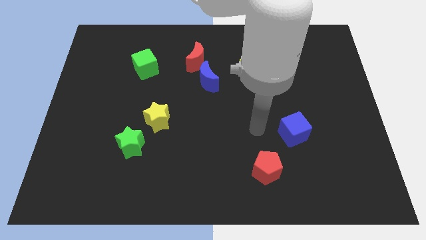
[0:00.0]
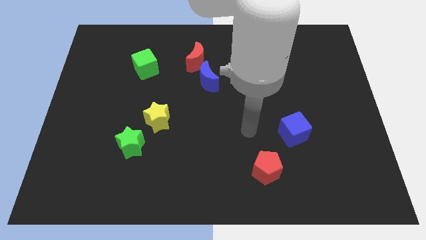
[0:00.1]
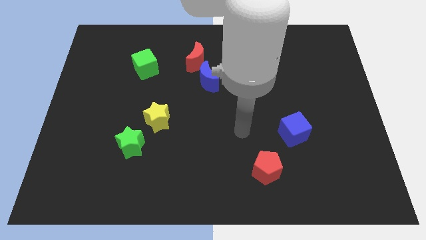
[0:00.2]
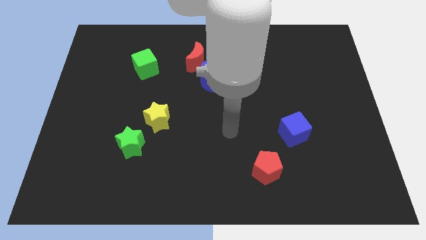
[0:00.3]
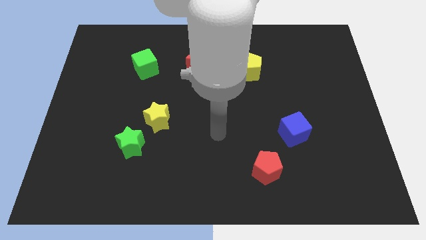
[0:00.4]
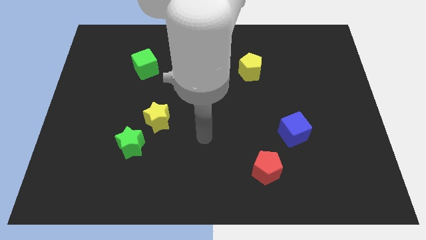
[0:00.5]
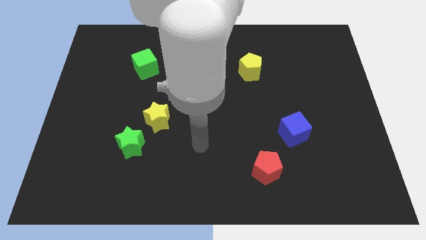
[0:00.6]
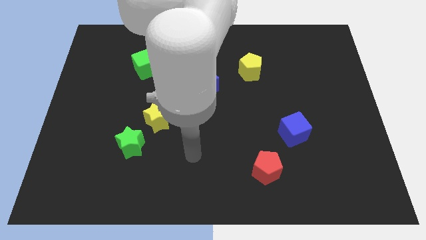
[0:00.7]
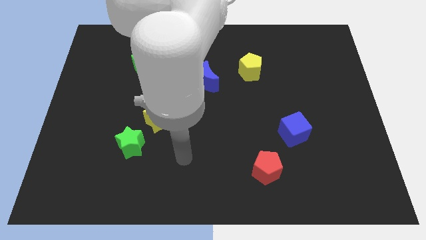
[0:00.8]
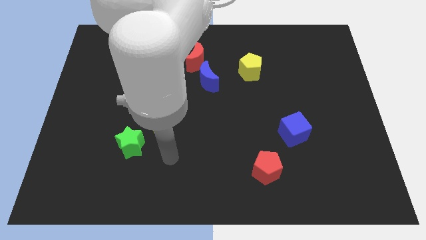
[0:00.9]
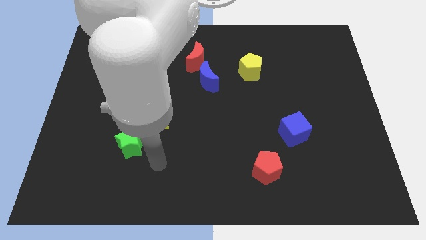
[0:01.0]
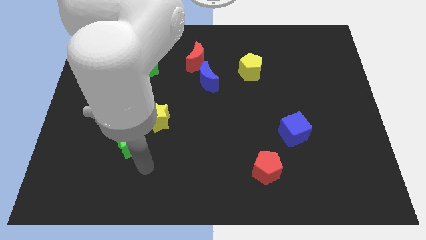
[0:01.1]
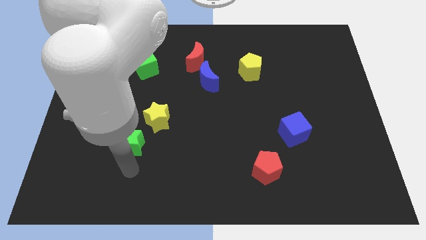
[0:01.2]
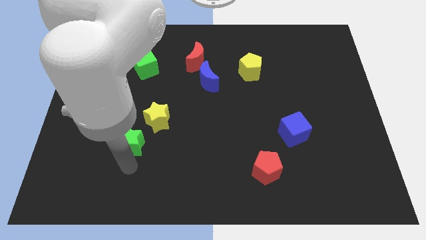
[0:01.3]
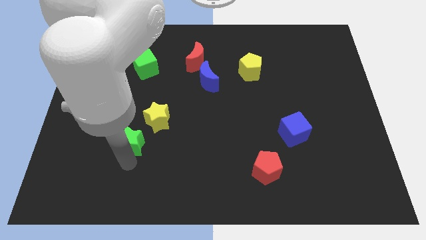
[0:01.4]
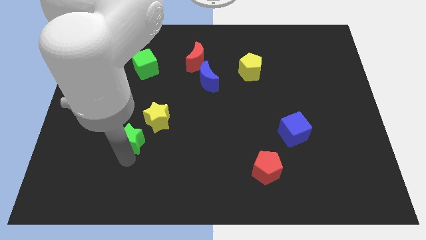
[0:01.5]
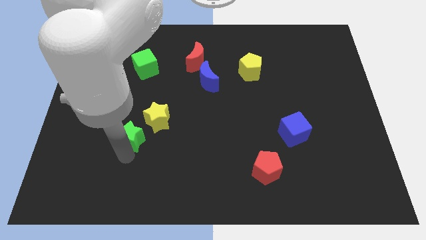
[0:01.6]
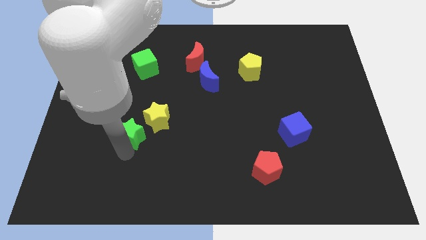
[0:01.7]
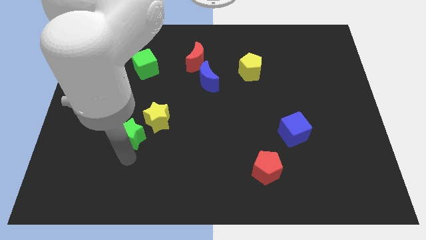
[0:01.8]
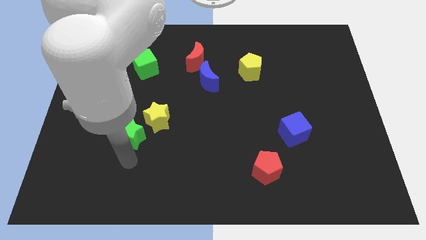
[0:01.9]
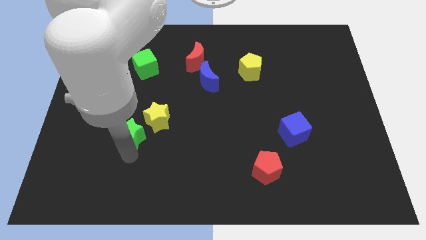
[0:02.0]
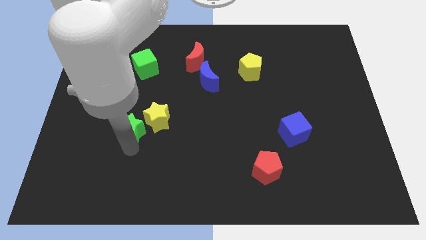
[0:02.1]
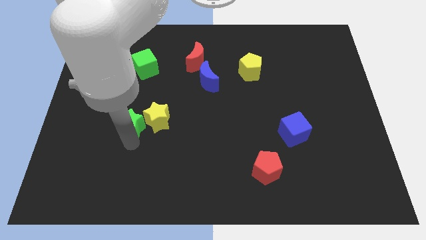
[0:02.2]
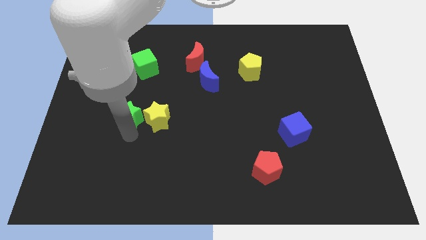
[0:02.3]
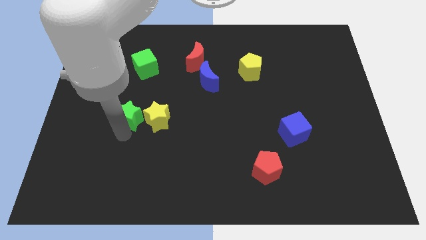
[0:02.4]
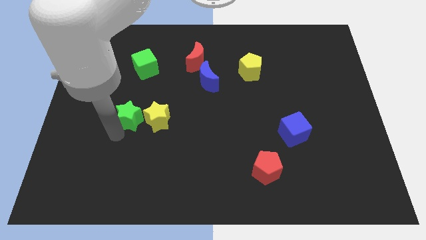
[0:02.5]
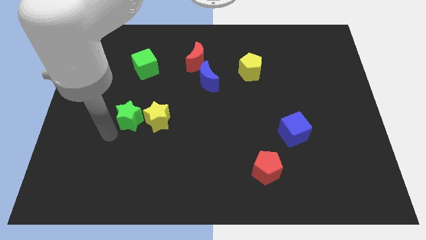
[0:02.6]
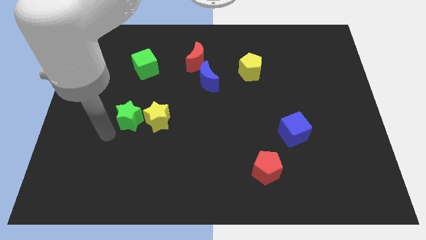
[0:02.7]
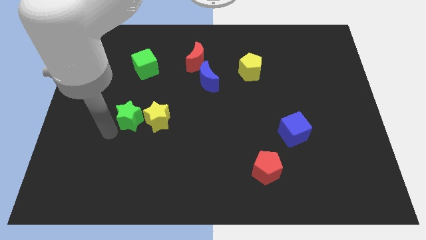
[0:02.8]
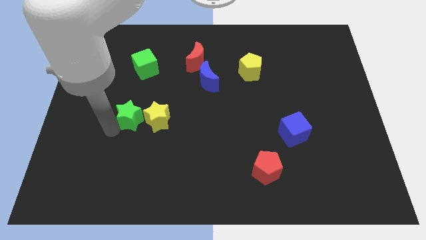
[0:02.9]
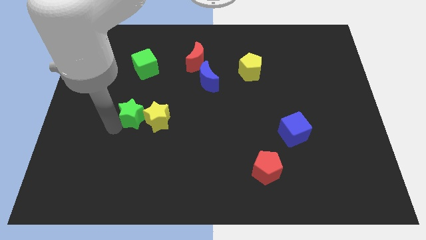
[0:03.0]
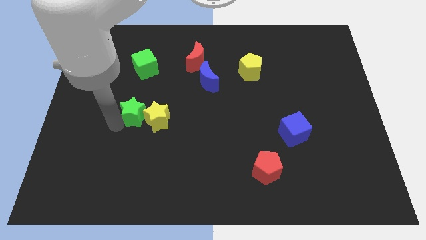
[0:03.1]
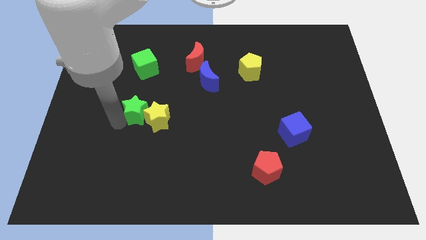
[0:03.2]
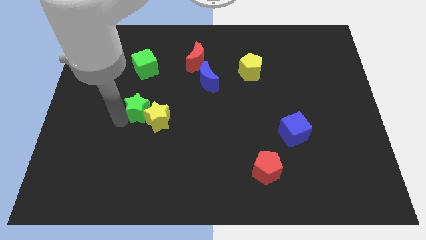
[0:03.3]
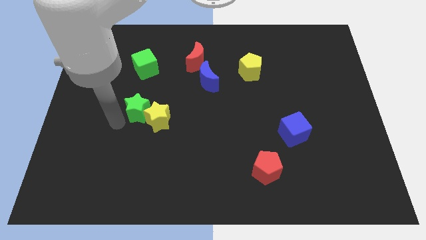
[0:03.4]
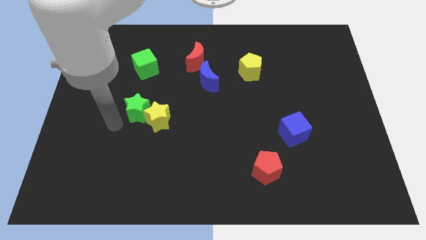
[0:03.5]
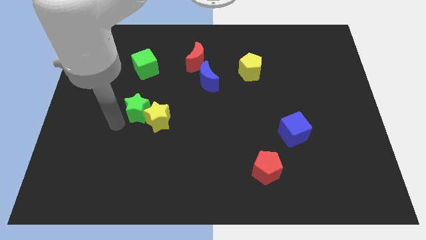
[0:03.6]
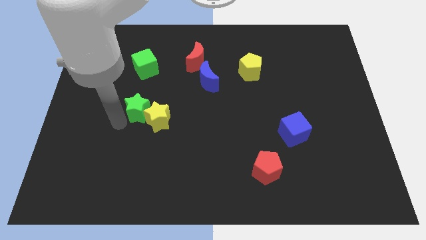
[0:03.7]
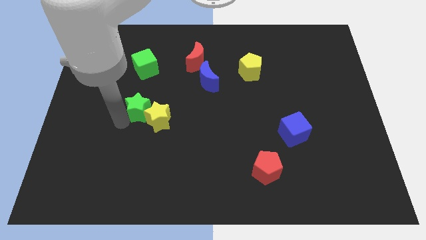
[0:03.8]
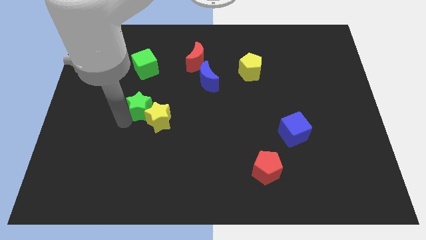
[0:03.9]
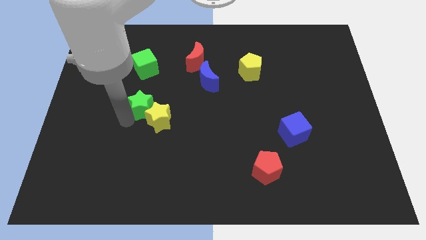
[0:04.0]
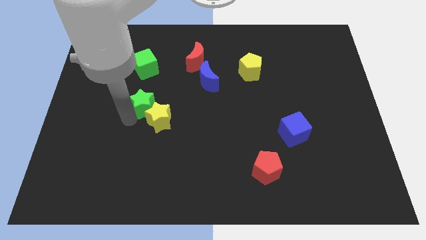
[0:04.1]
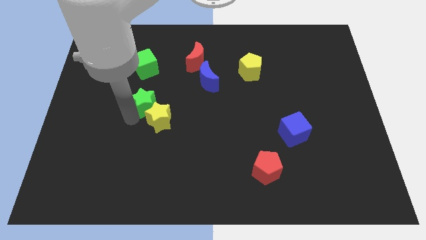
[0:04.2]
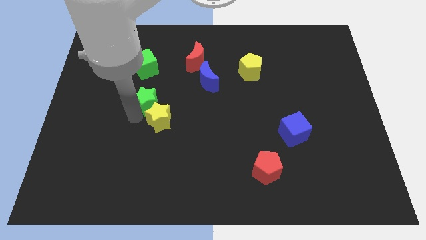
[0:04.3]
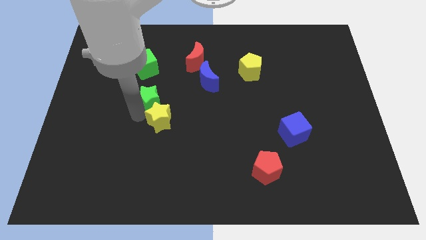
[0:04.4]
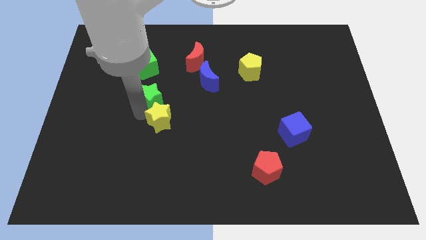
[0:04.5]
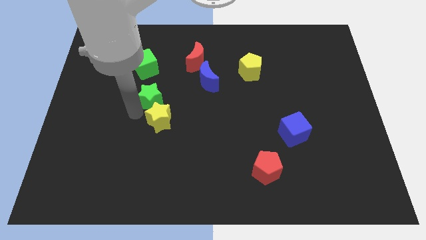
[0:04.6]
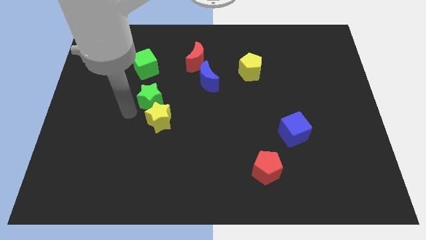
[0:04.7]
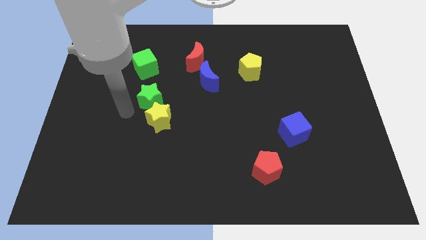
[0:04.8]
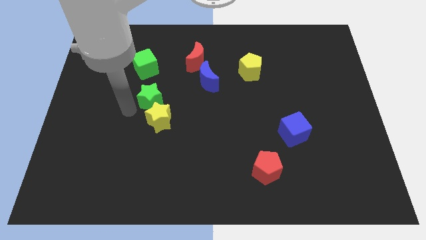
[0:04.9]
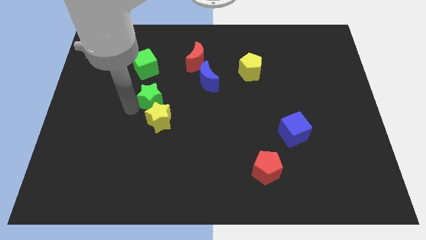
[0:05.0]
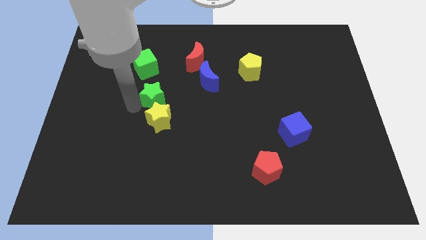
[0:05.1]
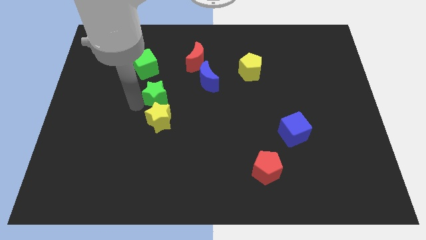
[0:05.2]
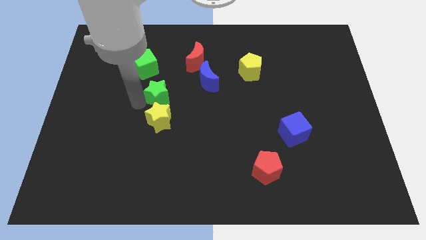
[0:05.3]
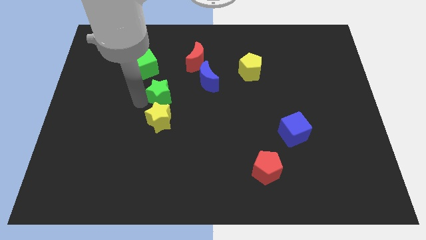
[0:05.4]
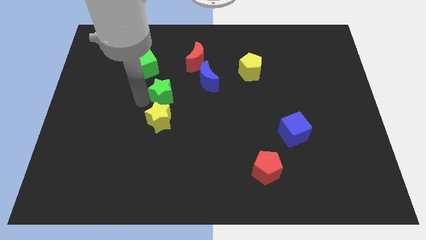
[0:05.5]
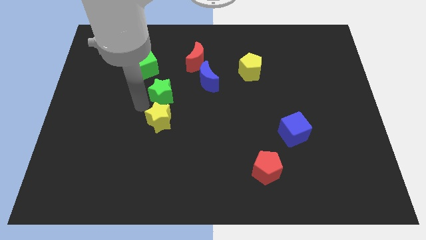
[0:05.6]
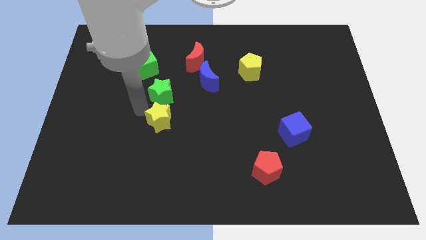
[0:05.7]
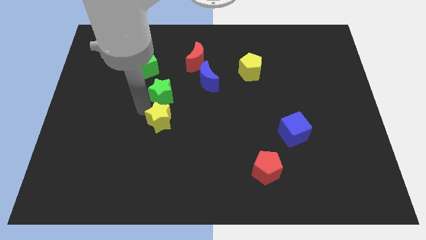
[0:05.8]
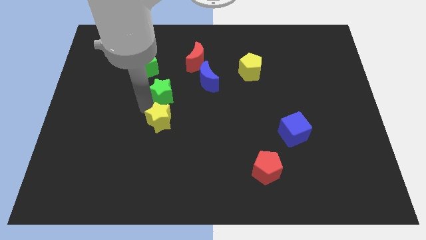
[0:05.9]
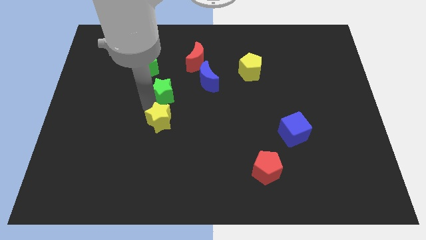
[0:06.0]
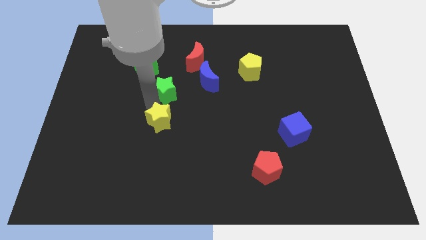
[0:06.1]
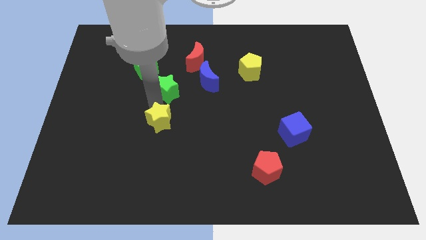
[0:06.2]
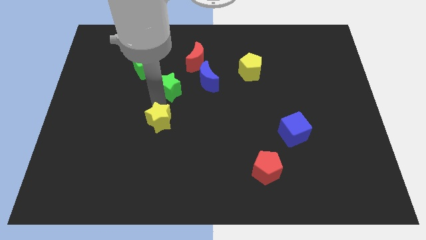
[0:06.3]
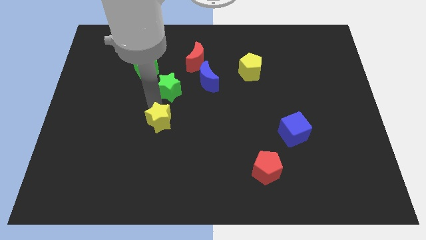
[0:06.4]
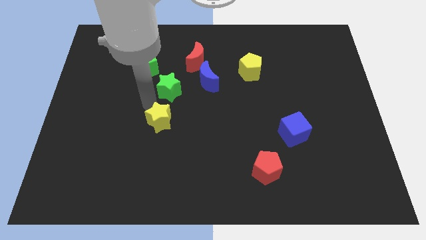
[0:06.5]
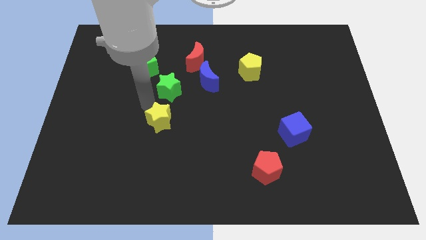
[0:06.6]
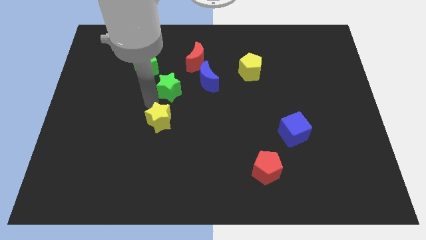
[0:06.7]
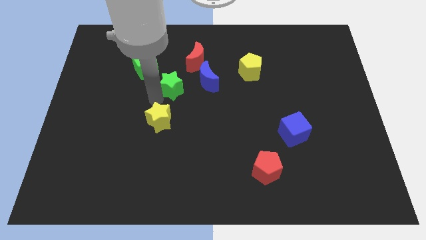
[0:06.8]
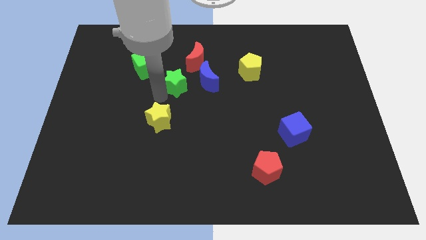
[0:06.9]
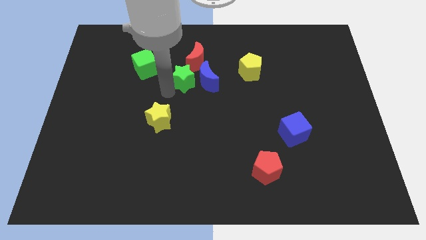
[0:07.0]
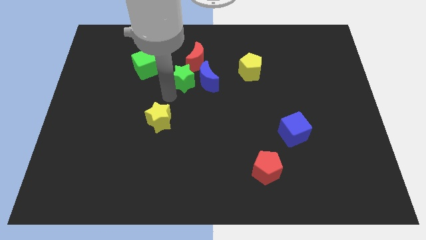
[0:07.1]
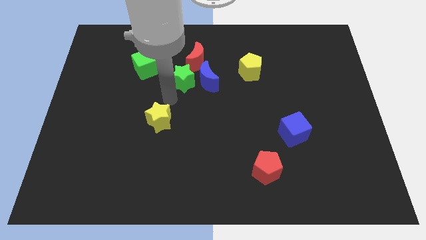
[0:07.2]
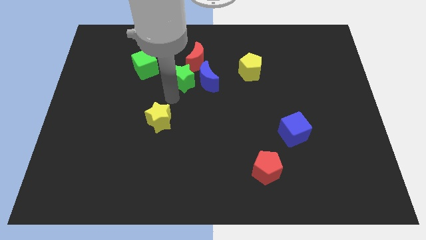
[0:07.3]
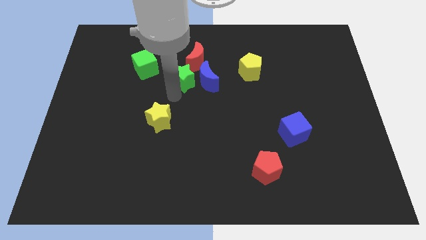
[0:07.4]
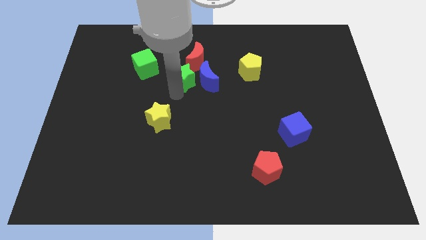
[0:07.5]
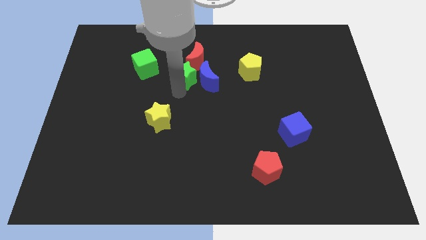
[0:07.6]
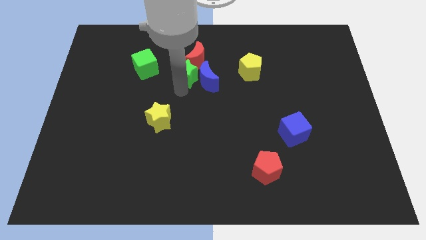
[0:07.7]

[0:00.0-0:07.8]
move the green star to the red moon

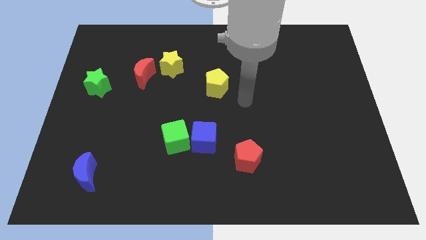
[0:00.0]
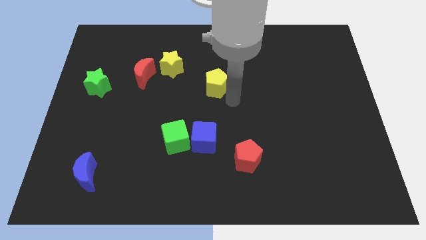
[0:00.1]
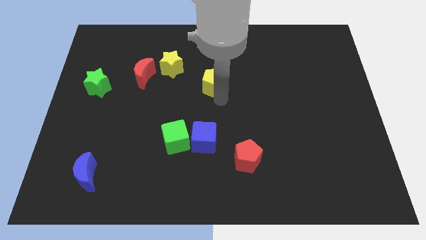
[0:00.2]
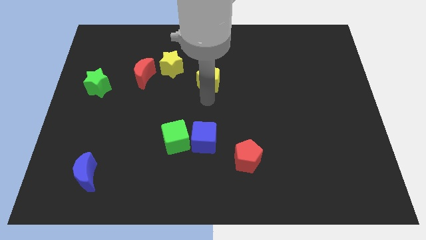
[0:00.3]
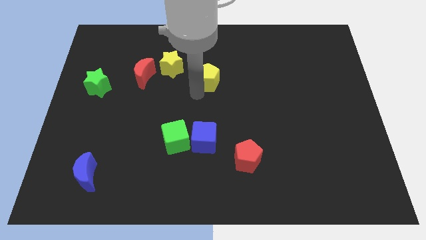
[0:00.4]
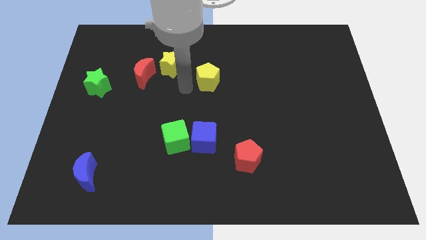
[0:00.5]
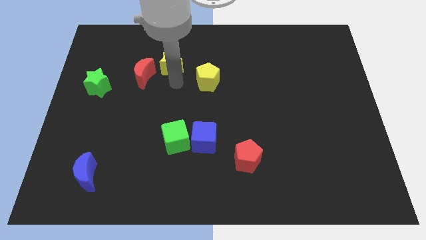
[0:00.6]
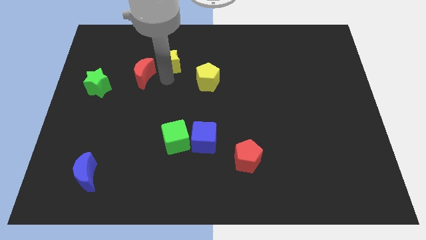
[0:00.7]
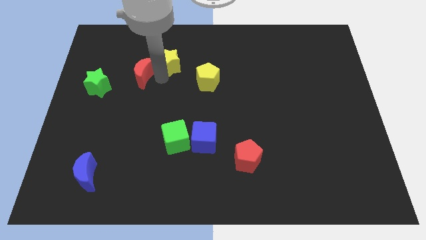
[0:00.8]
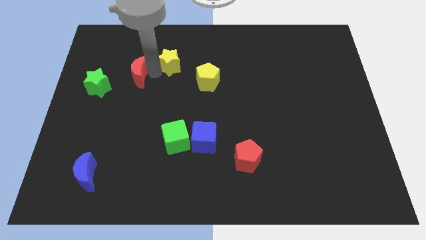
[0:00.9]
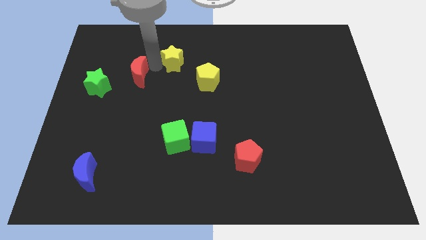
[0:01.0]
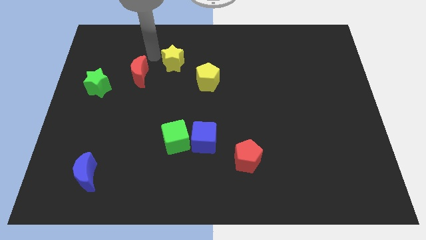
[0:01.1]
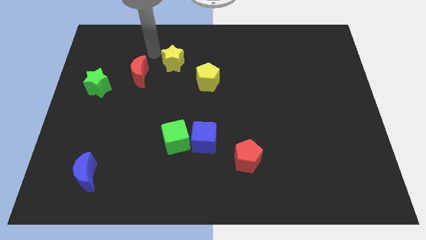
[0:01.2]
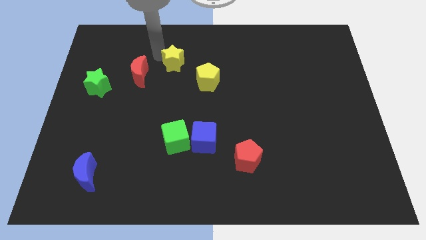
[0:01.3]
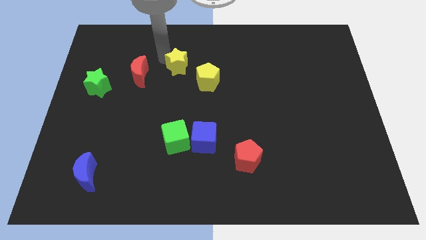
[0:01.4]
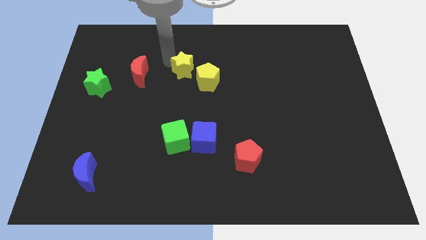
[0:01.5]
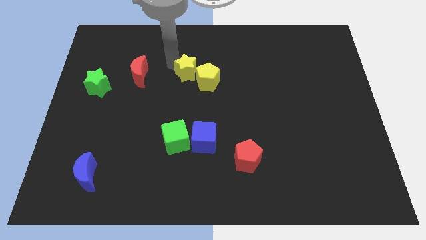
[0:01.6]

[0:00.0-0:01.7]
slide the yellow star next to the yellow pentagon
